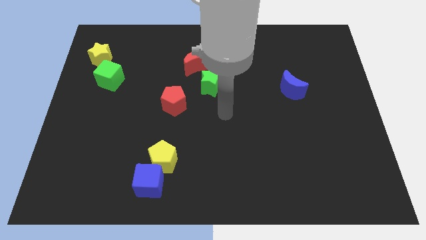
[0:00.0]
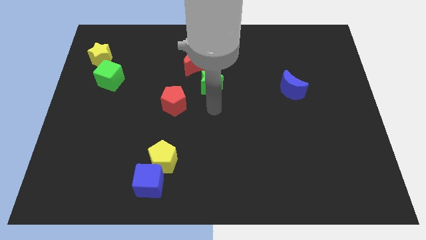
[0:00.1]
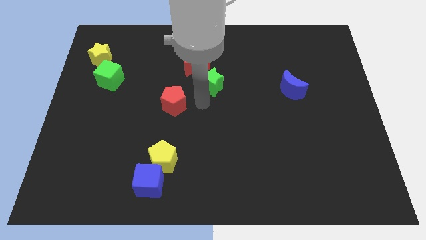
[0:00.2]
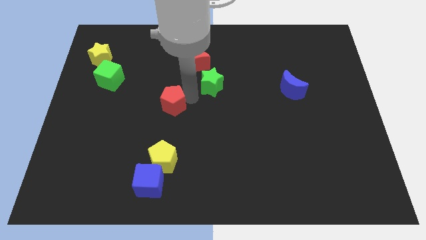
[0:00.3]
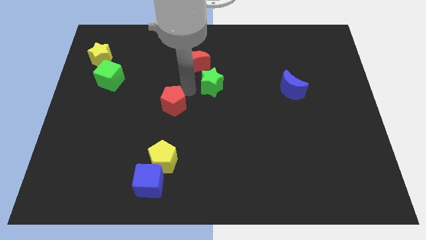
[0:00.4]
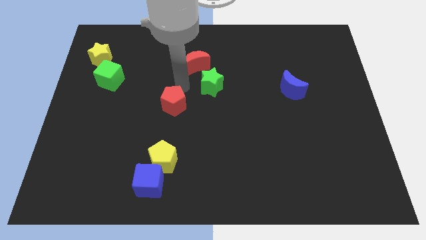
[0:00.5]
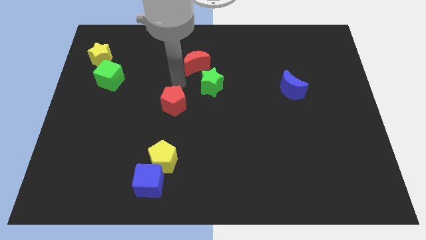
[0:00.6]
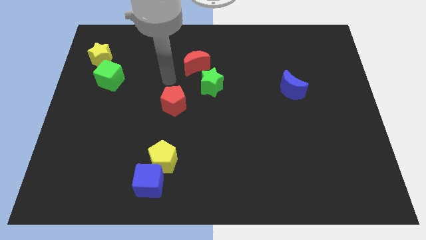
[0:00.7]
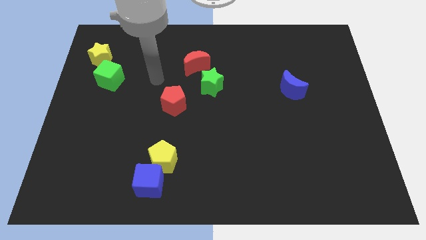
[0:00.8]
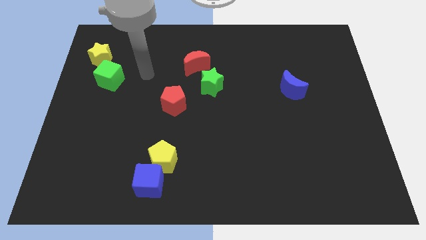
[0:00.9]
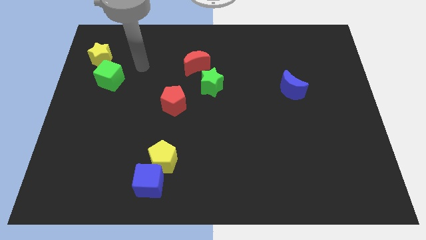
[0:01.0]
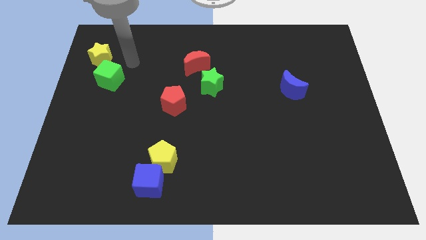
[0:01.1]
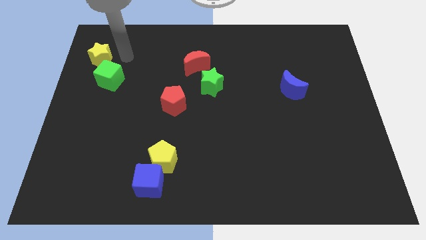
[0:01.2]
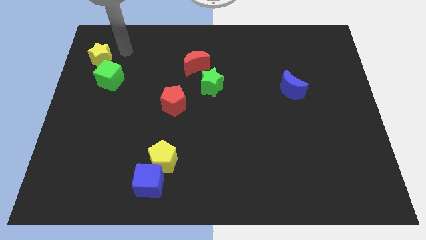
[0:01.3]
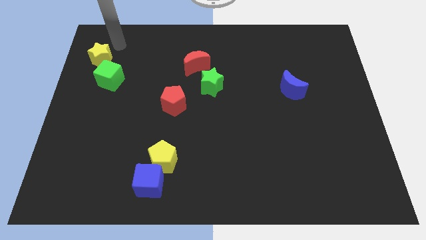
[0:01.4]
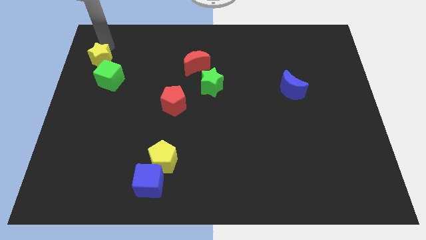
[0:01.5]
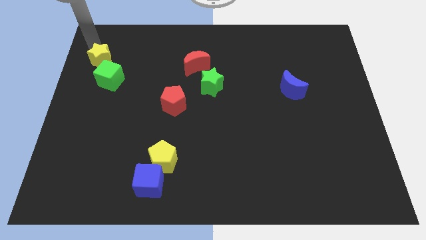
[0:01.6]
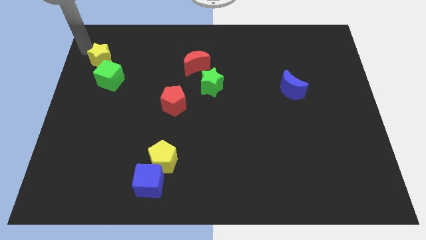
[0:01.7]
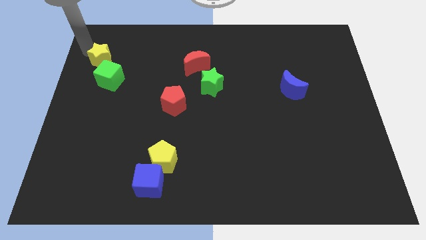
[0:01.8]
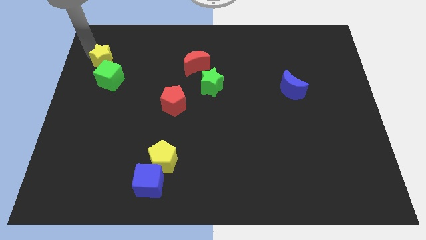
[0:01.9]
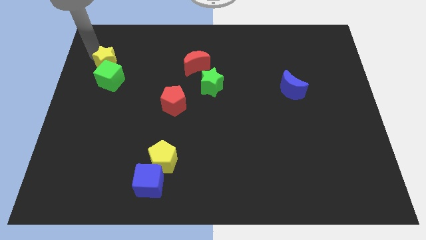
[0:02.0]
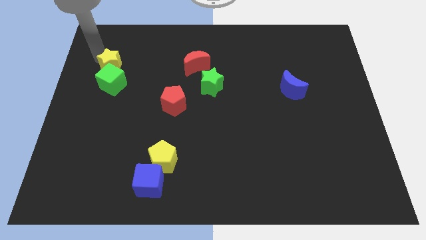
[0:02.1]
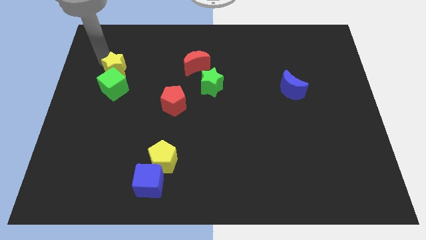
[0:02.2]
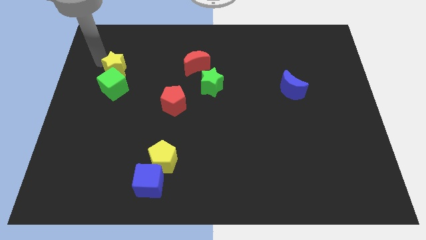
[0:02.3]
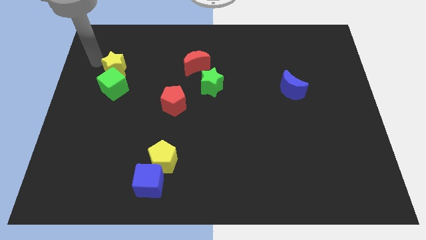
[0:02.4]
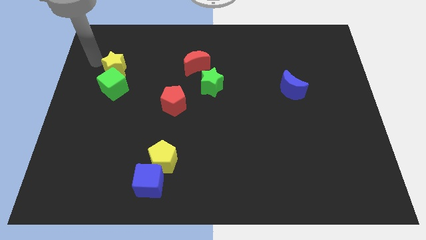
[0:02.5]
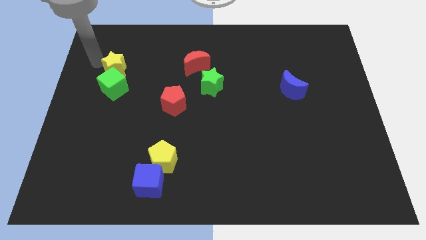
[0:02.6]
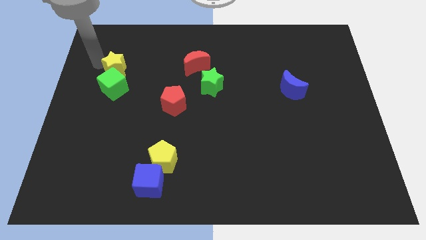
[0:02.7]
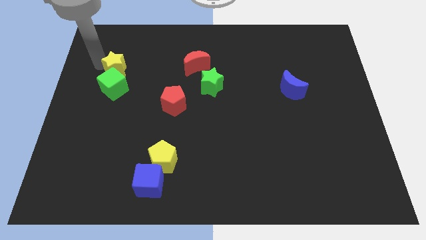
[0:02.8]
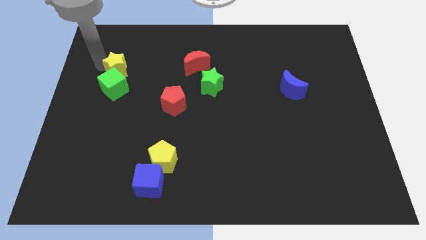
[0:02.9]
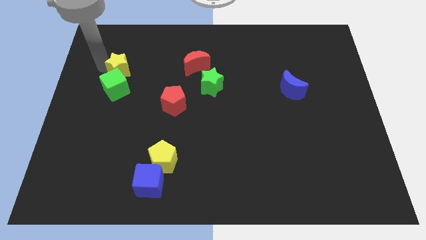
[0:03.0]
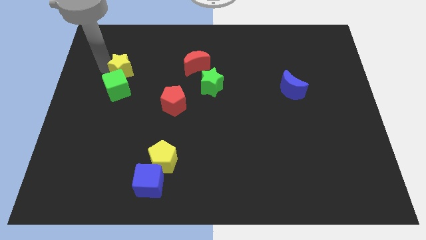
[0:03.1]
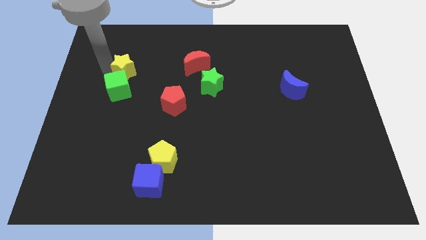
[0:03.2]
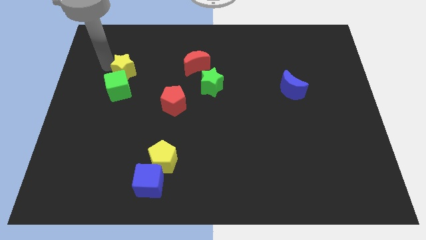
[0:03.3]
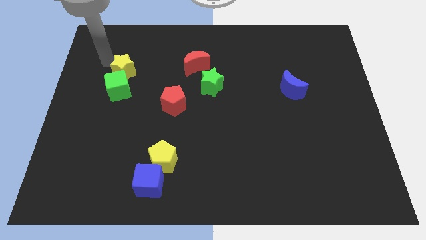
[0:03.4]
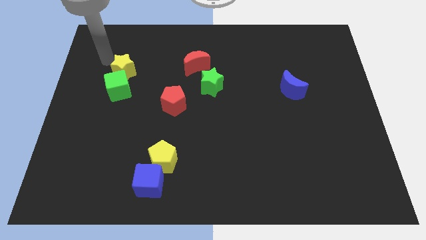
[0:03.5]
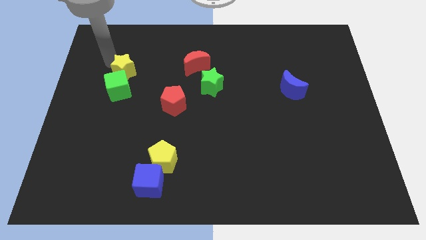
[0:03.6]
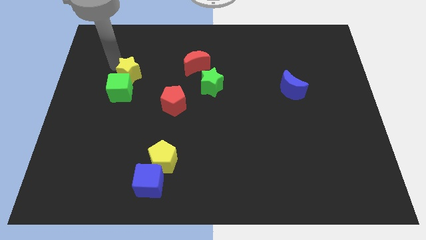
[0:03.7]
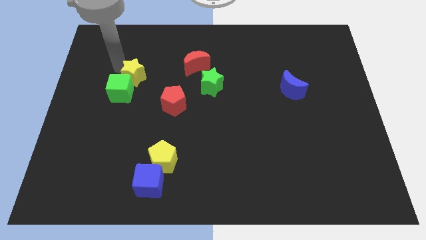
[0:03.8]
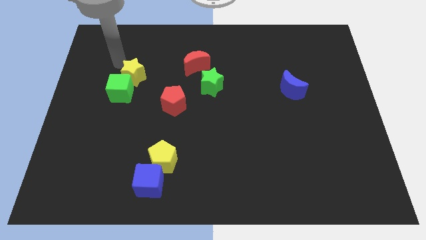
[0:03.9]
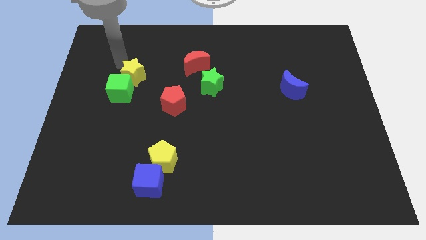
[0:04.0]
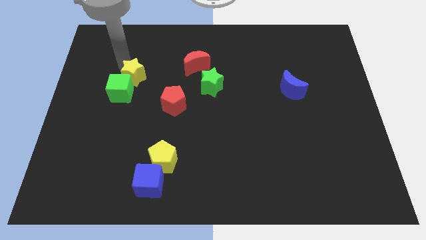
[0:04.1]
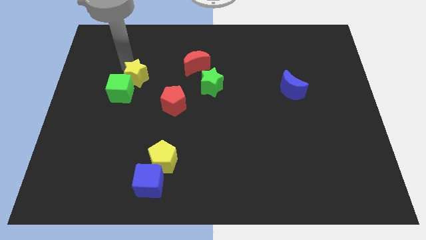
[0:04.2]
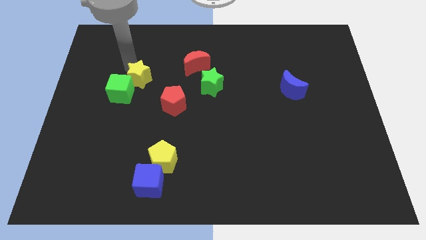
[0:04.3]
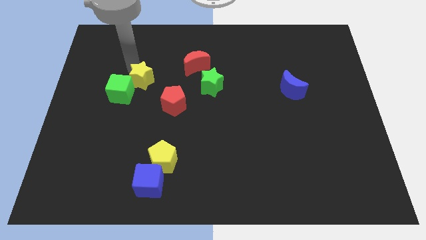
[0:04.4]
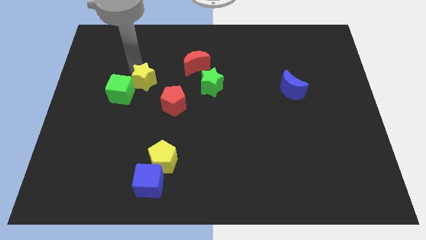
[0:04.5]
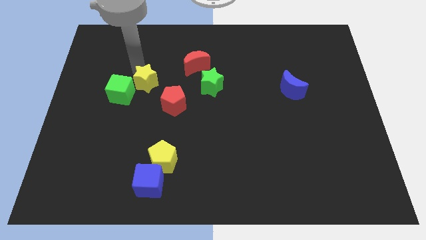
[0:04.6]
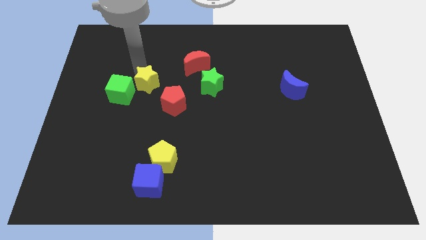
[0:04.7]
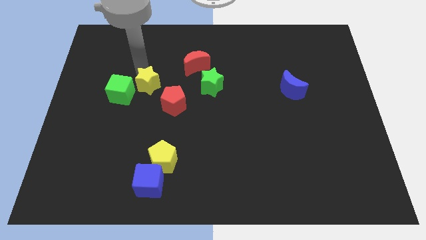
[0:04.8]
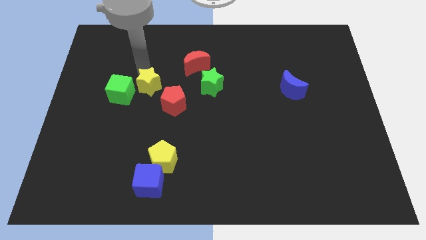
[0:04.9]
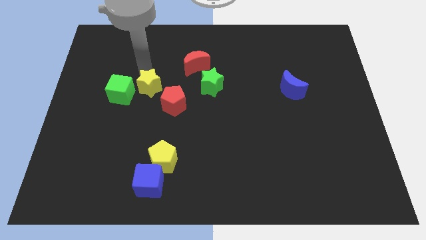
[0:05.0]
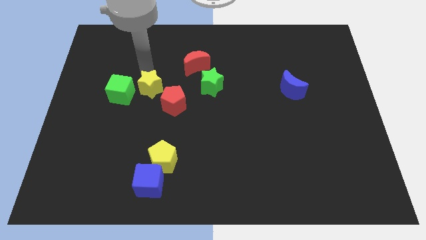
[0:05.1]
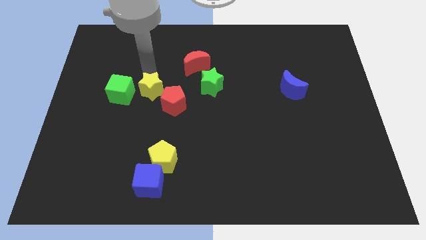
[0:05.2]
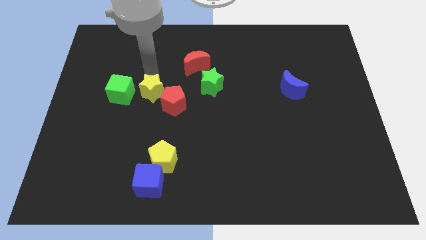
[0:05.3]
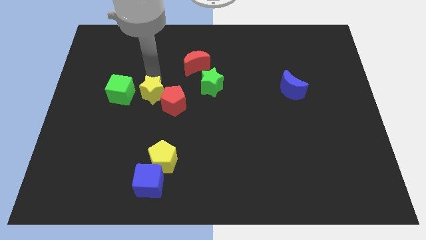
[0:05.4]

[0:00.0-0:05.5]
slide the yellow star next to the red pentagon

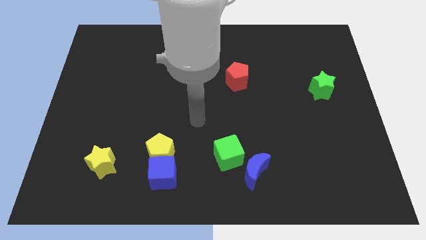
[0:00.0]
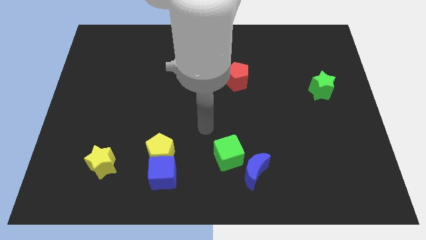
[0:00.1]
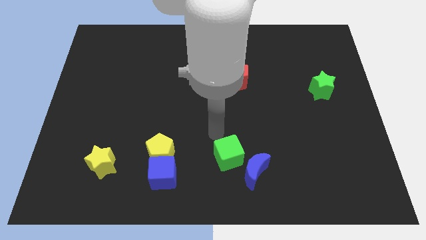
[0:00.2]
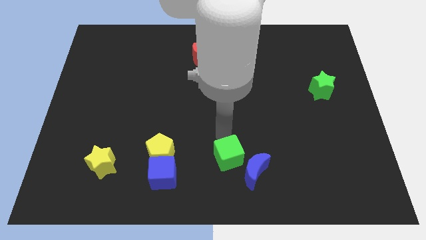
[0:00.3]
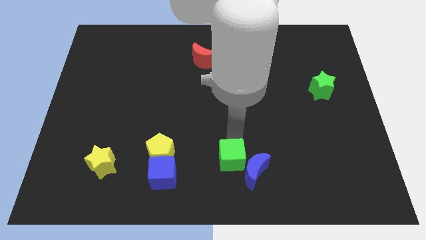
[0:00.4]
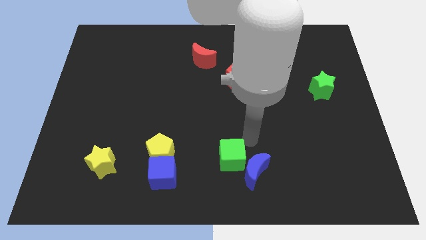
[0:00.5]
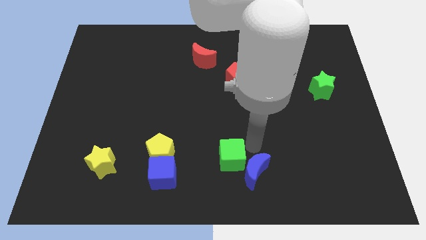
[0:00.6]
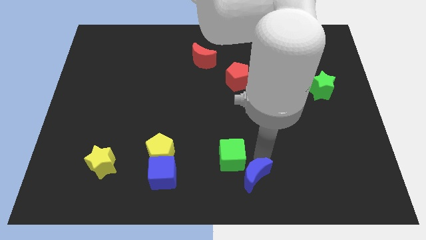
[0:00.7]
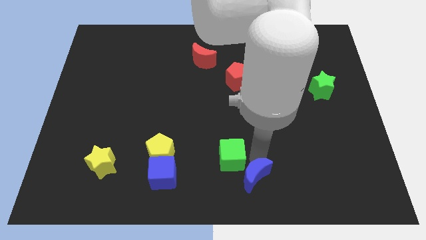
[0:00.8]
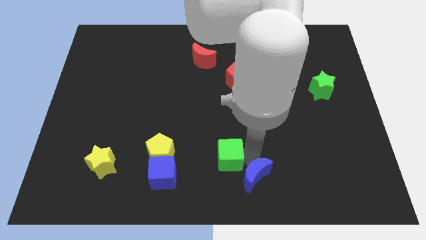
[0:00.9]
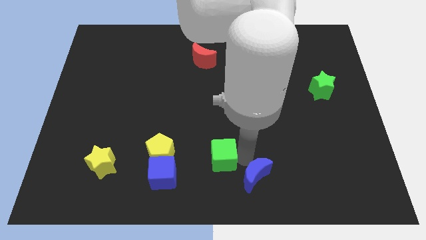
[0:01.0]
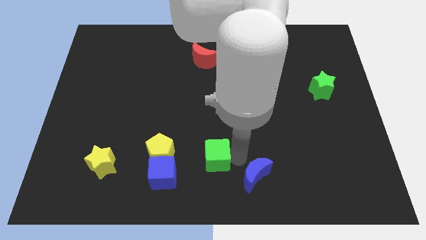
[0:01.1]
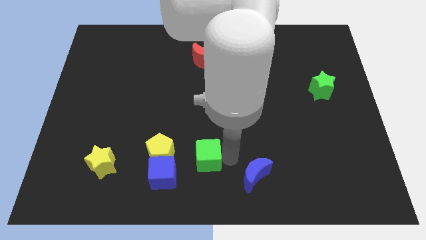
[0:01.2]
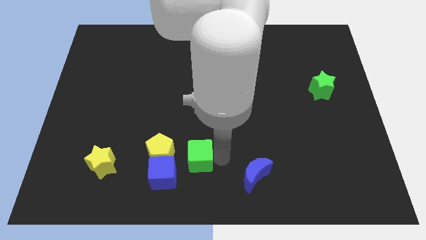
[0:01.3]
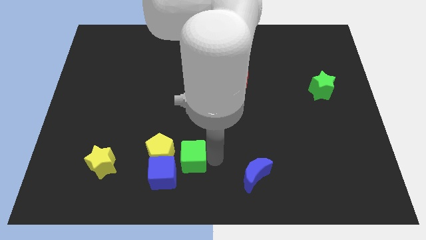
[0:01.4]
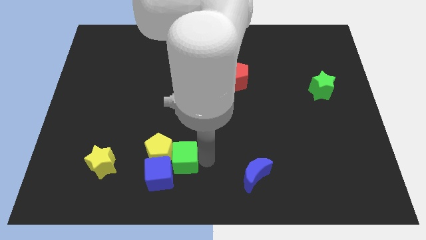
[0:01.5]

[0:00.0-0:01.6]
slide the green cube next to the yellow pentagon
